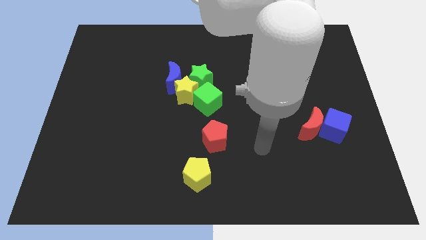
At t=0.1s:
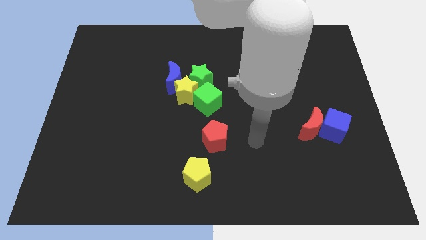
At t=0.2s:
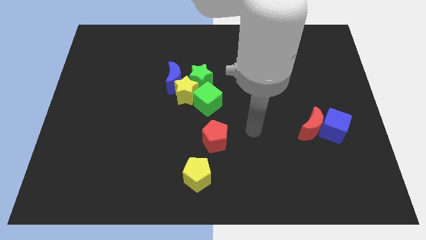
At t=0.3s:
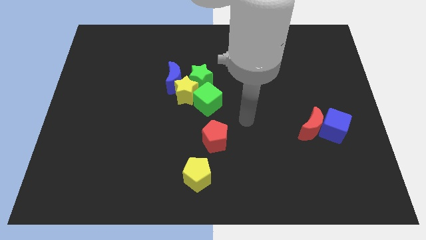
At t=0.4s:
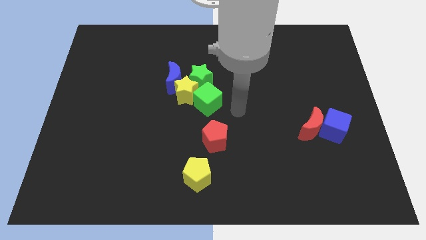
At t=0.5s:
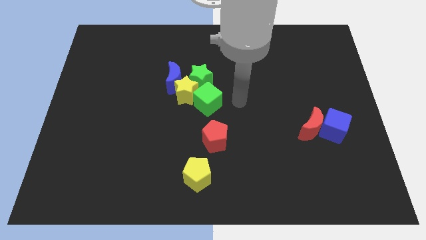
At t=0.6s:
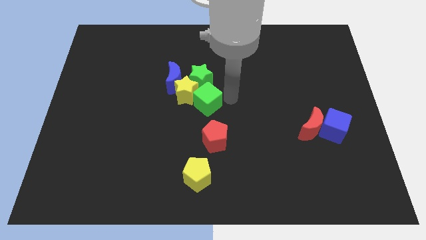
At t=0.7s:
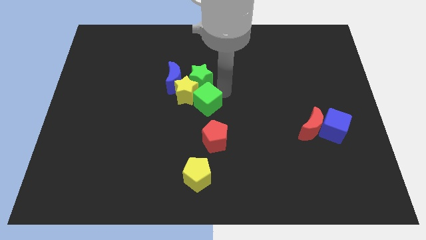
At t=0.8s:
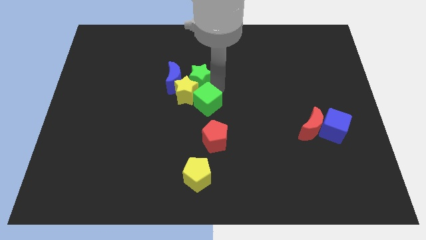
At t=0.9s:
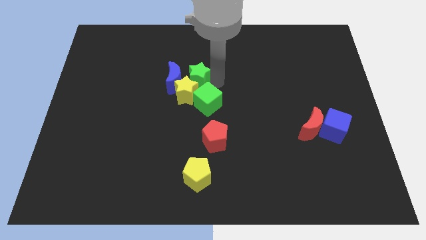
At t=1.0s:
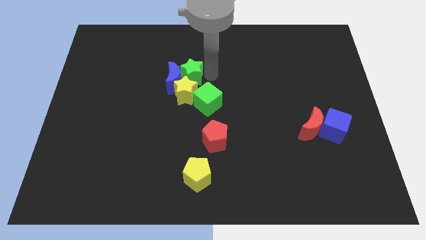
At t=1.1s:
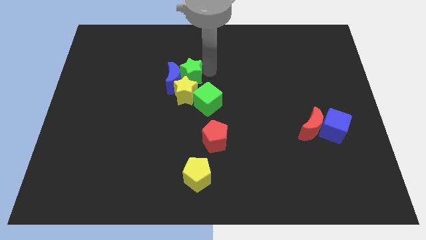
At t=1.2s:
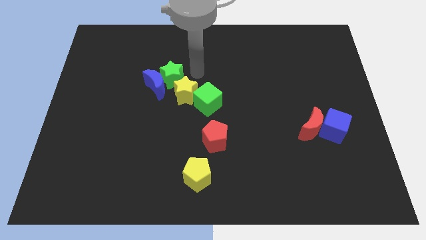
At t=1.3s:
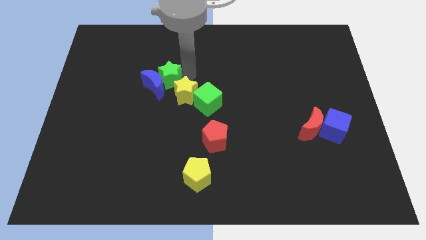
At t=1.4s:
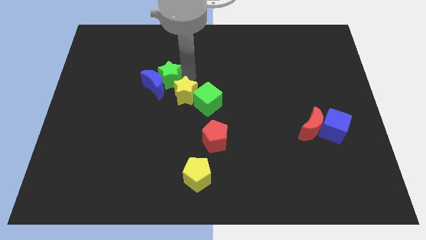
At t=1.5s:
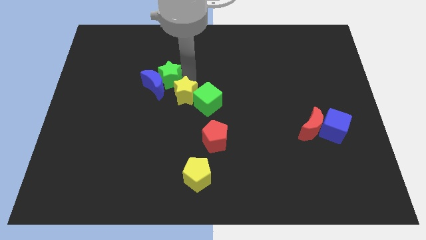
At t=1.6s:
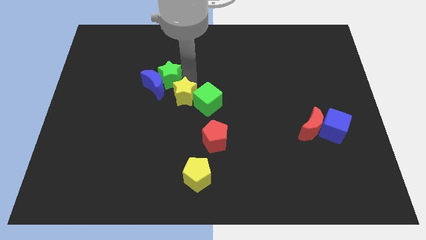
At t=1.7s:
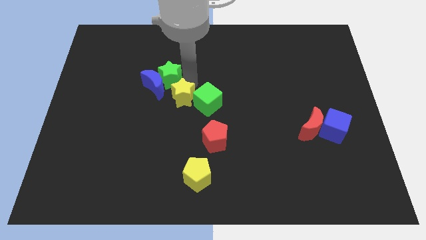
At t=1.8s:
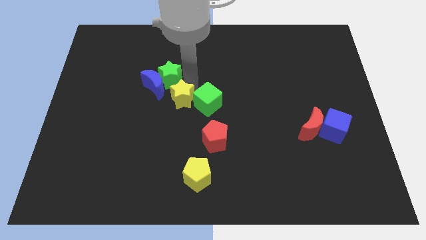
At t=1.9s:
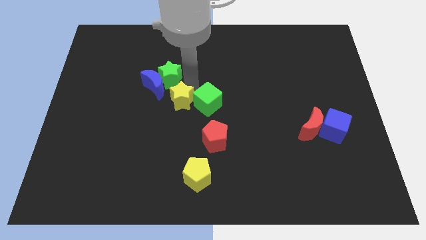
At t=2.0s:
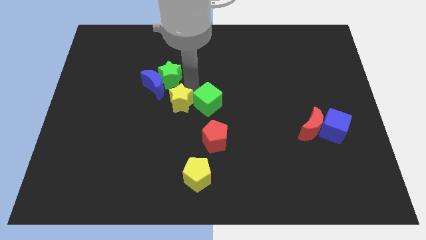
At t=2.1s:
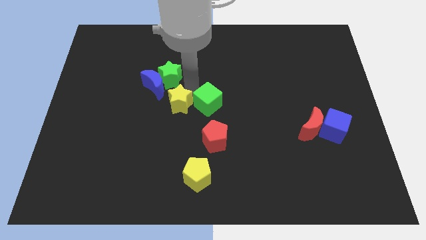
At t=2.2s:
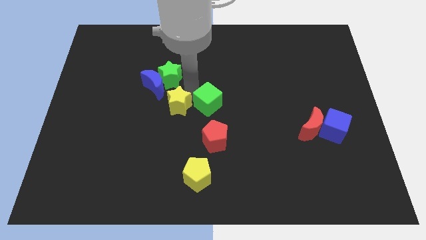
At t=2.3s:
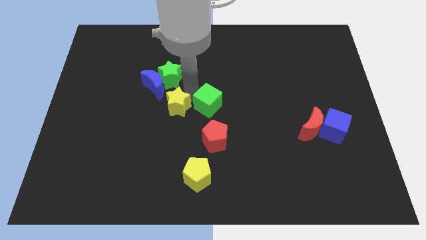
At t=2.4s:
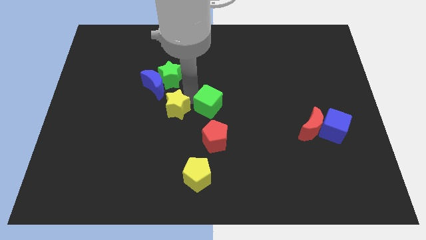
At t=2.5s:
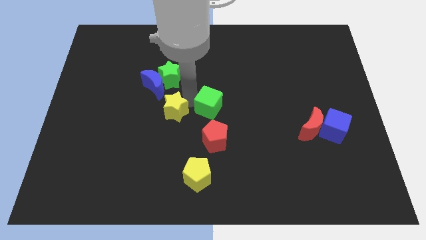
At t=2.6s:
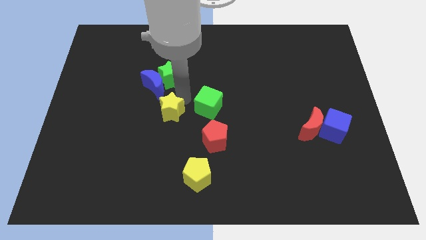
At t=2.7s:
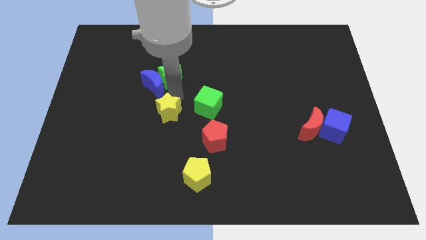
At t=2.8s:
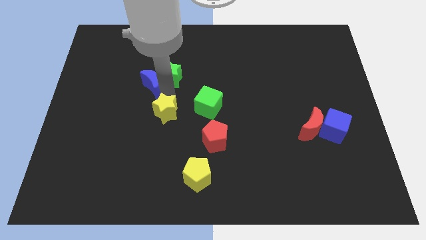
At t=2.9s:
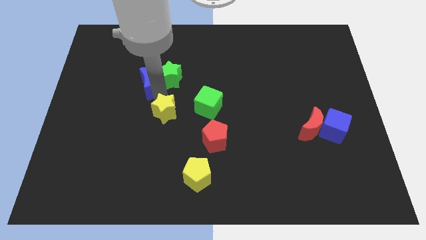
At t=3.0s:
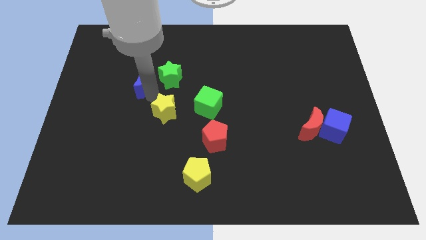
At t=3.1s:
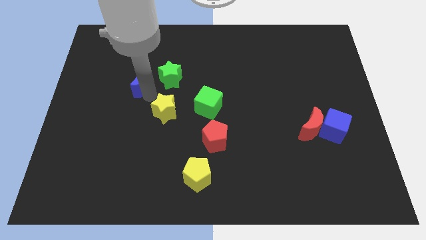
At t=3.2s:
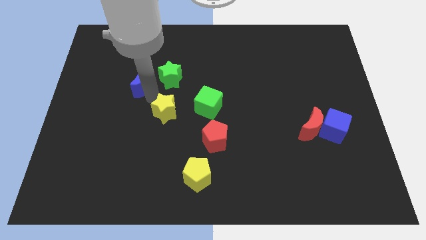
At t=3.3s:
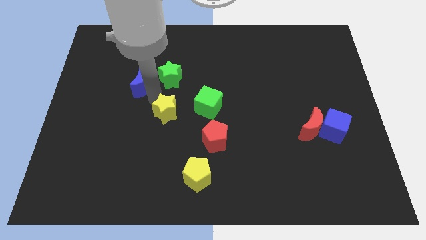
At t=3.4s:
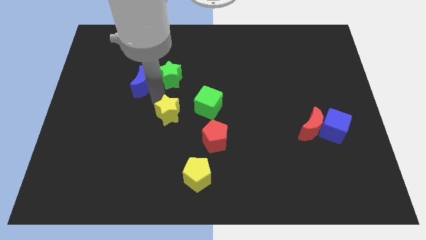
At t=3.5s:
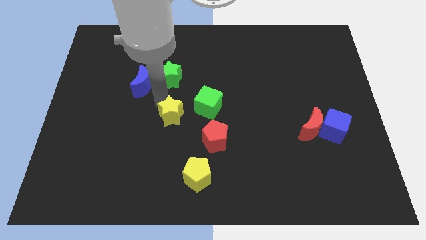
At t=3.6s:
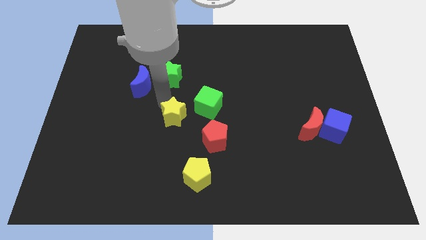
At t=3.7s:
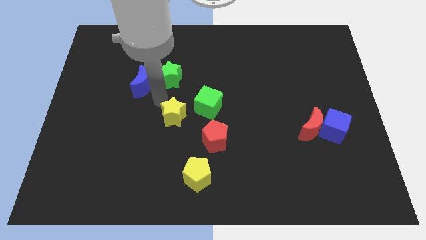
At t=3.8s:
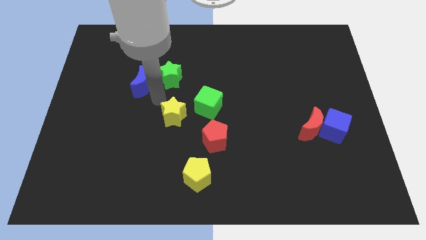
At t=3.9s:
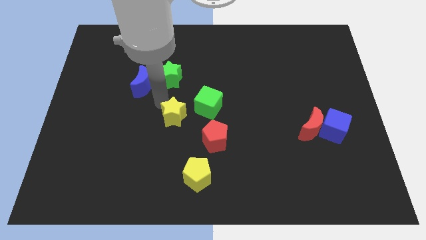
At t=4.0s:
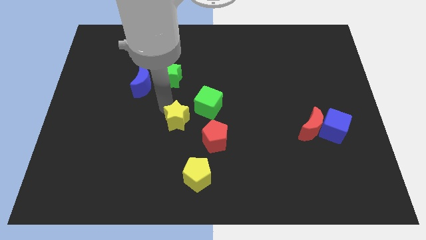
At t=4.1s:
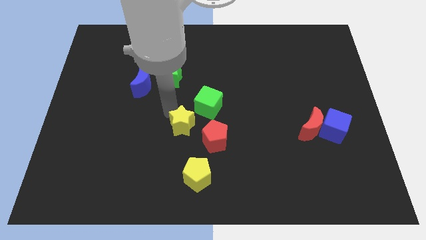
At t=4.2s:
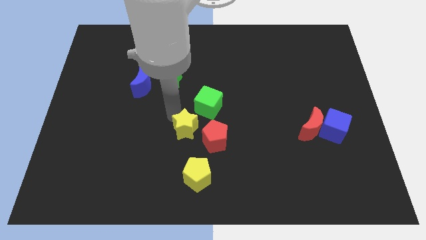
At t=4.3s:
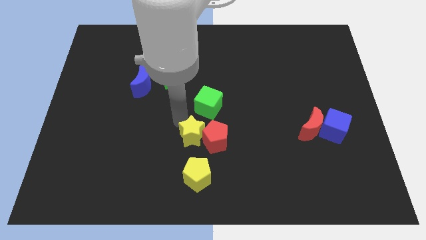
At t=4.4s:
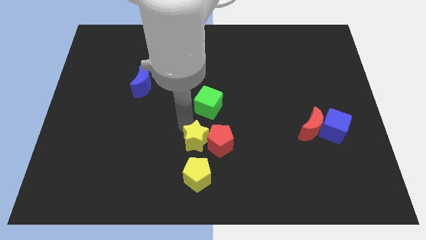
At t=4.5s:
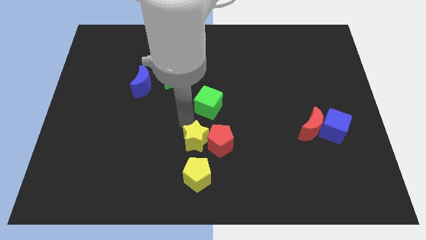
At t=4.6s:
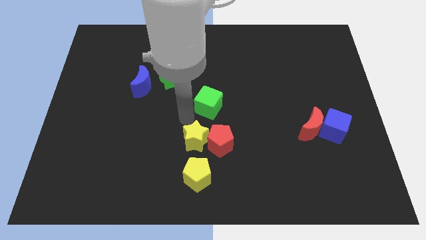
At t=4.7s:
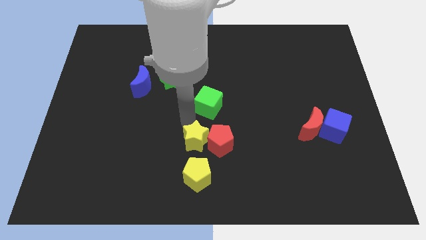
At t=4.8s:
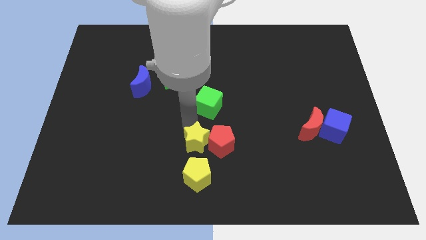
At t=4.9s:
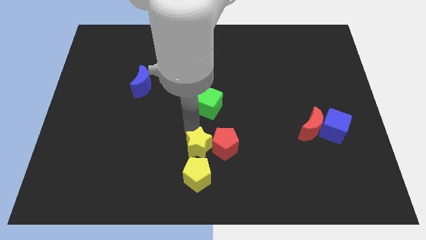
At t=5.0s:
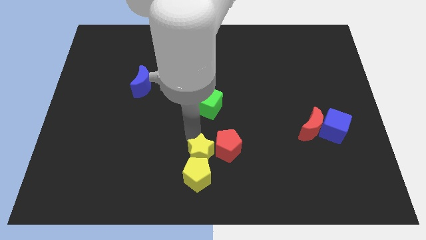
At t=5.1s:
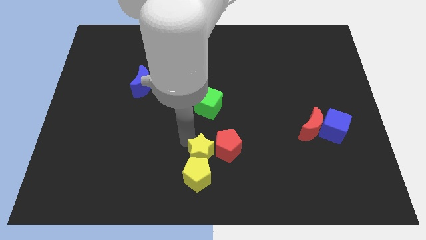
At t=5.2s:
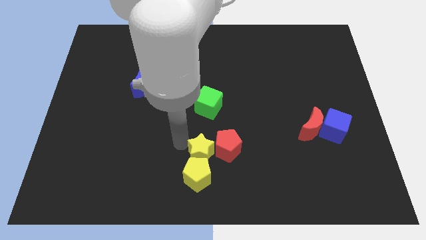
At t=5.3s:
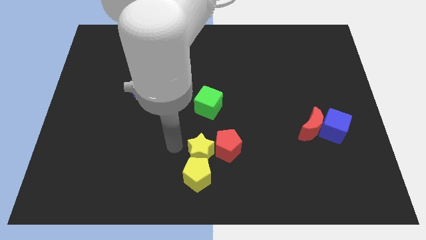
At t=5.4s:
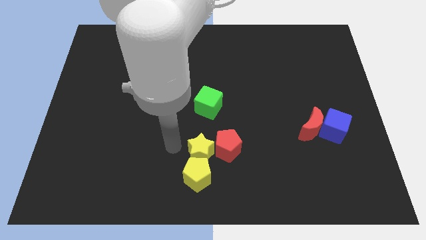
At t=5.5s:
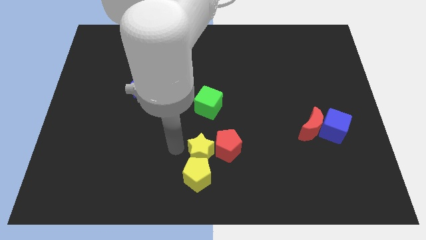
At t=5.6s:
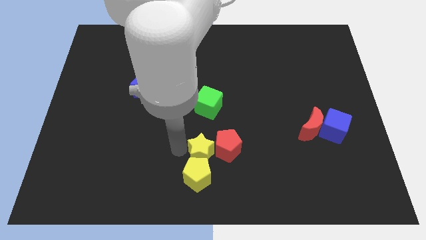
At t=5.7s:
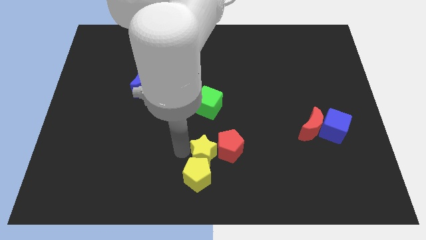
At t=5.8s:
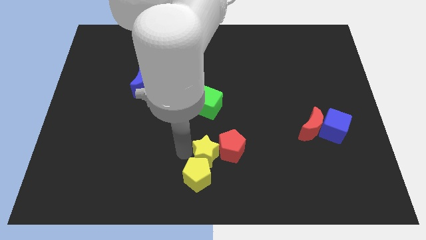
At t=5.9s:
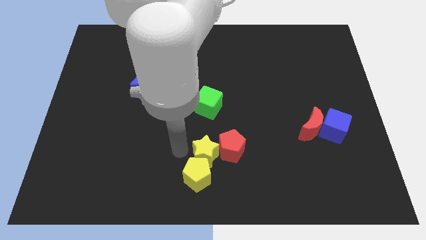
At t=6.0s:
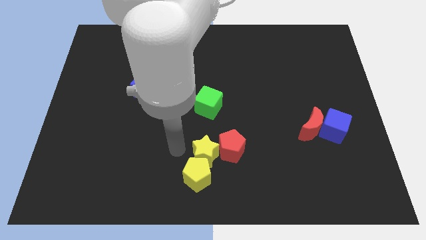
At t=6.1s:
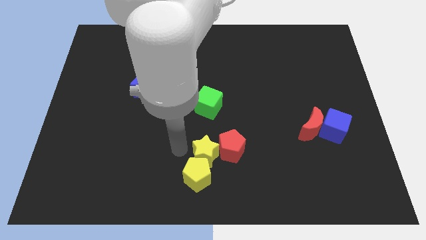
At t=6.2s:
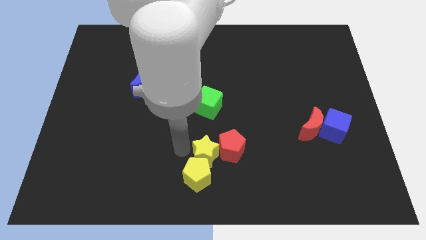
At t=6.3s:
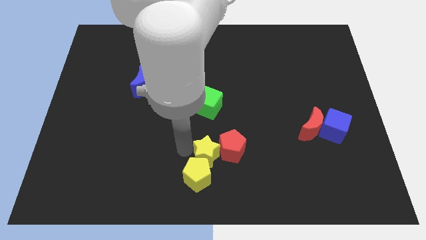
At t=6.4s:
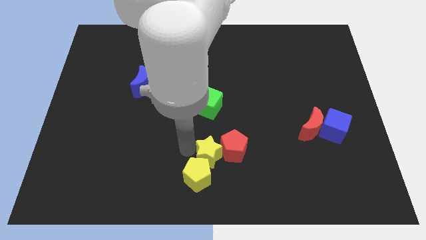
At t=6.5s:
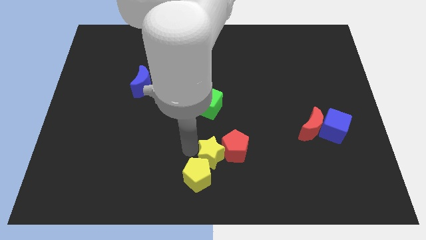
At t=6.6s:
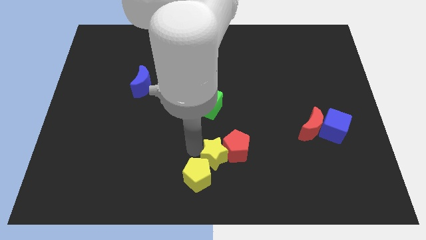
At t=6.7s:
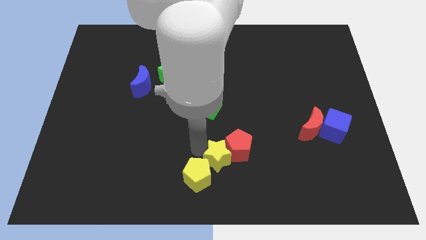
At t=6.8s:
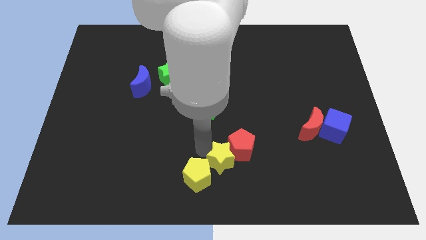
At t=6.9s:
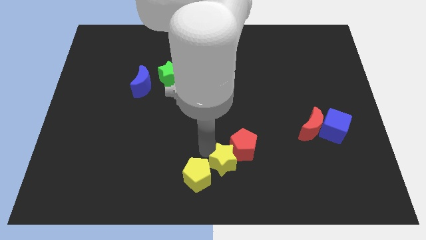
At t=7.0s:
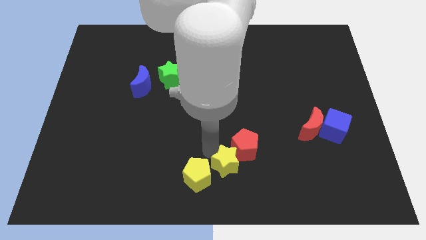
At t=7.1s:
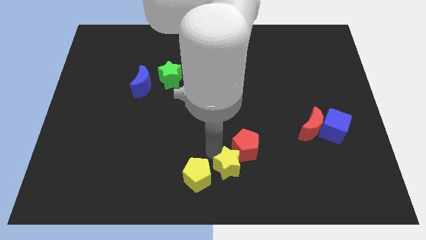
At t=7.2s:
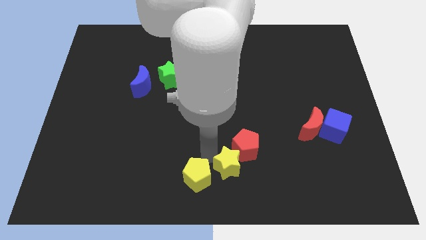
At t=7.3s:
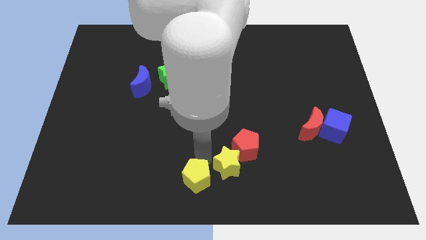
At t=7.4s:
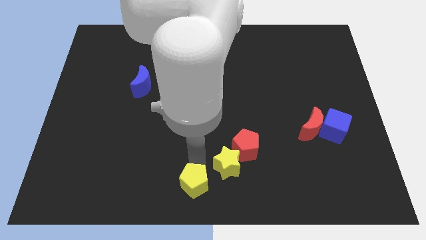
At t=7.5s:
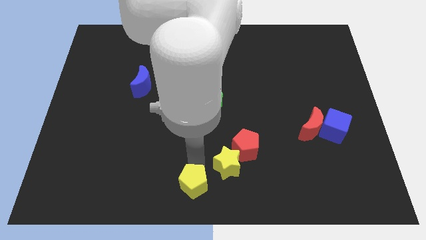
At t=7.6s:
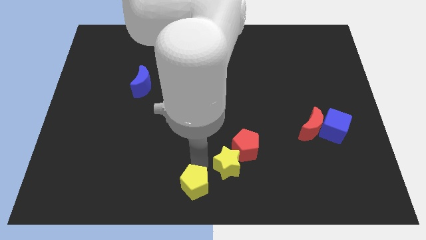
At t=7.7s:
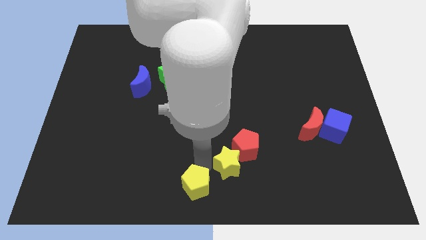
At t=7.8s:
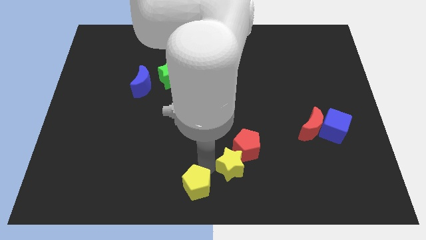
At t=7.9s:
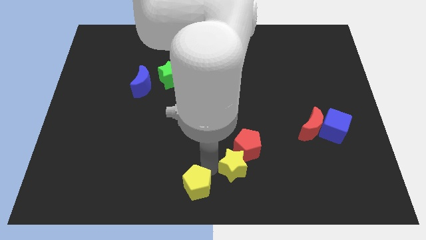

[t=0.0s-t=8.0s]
push the yellow star downwards and then to the right
